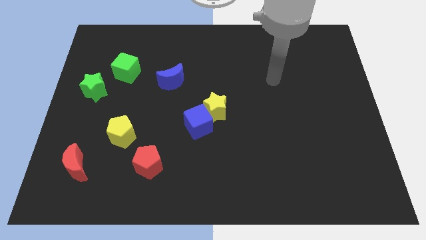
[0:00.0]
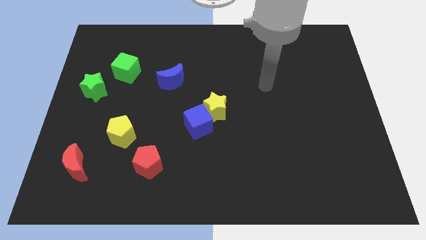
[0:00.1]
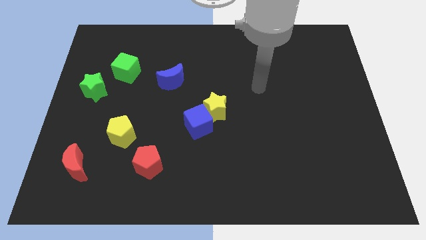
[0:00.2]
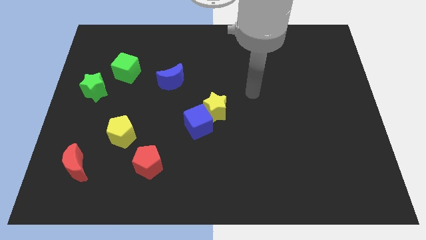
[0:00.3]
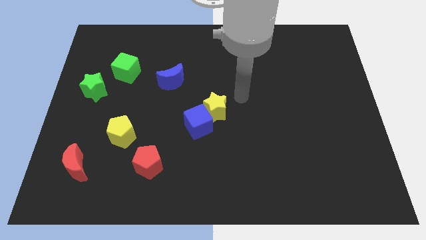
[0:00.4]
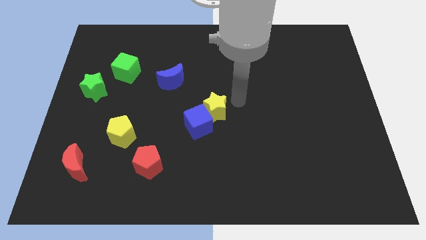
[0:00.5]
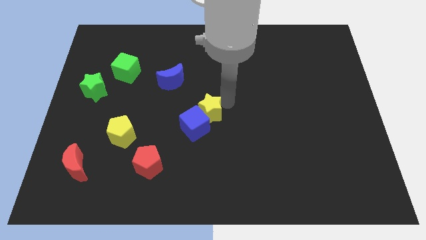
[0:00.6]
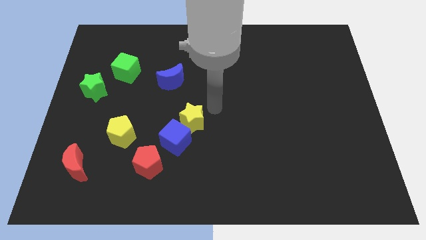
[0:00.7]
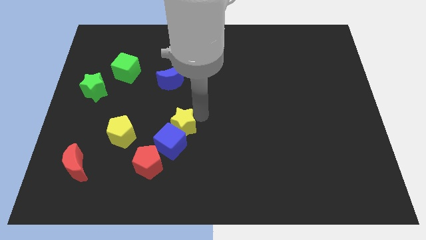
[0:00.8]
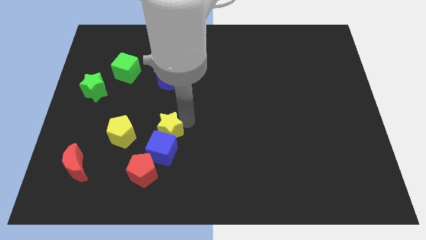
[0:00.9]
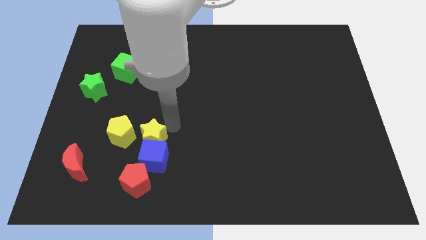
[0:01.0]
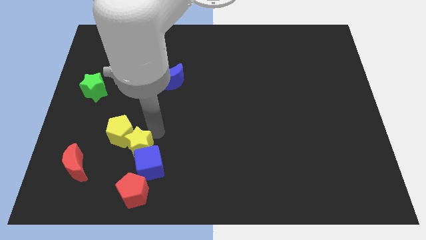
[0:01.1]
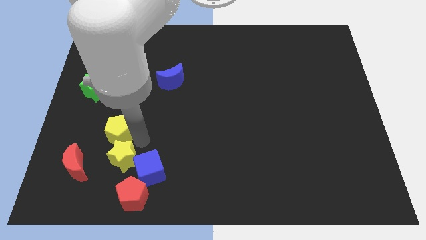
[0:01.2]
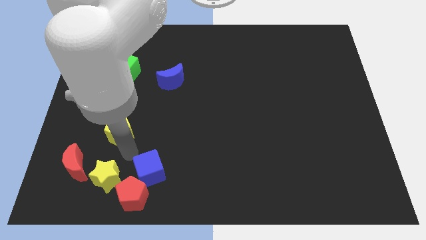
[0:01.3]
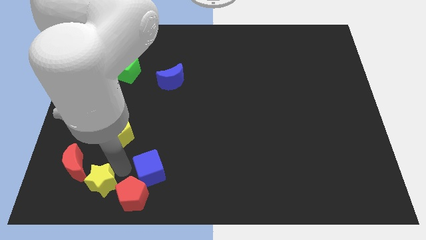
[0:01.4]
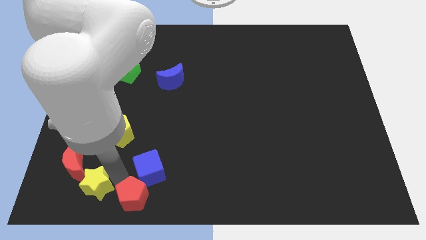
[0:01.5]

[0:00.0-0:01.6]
move the blue cube away from the yellow star

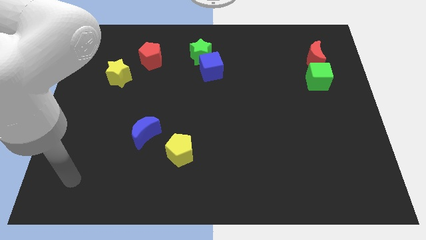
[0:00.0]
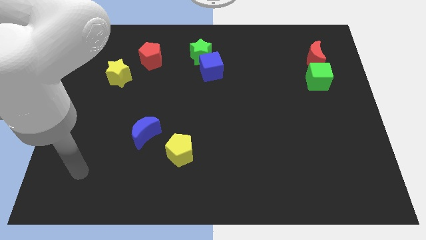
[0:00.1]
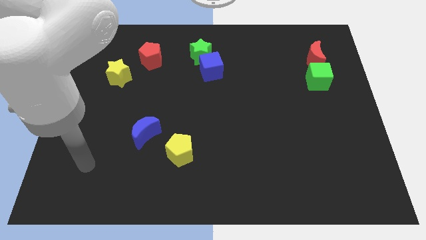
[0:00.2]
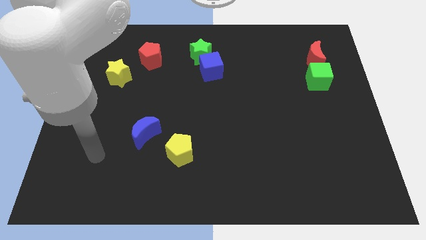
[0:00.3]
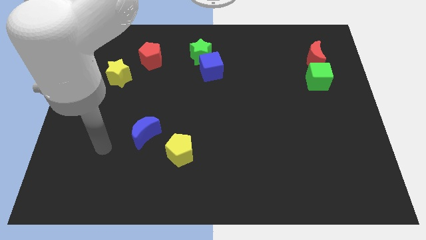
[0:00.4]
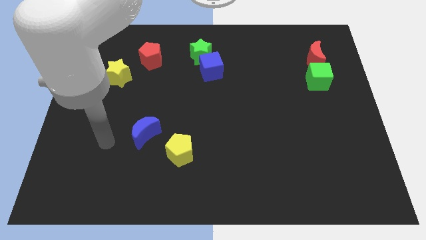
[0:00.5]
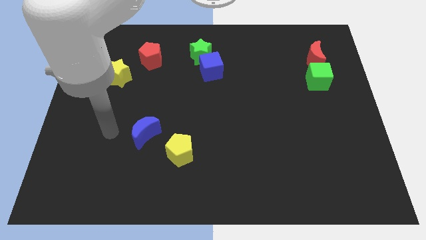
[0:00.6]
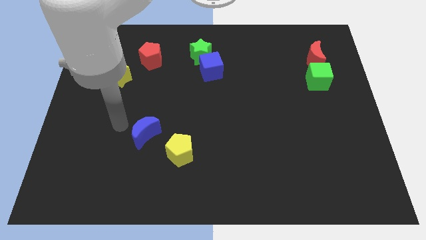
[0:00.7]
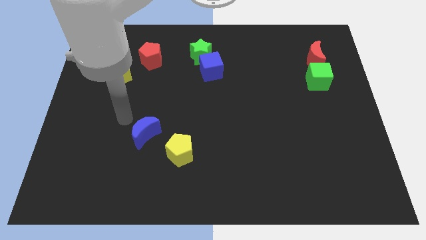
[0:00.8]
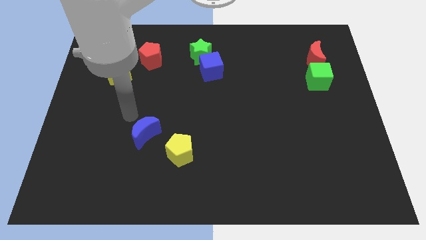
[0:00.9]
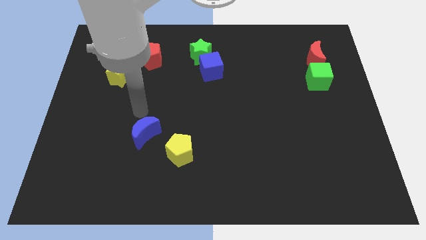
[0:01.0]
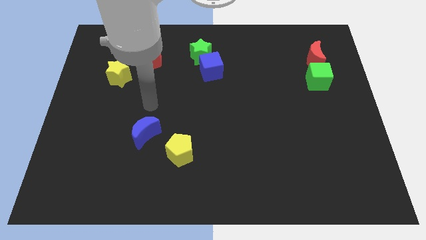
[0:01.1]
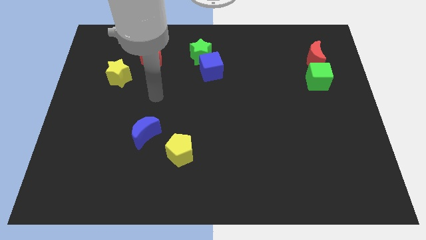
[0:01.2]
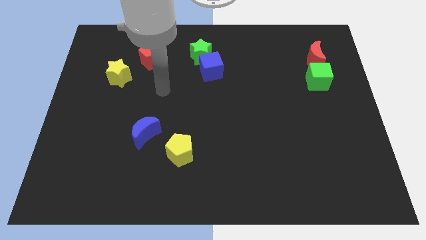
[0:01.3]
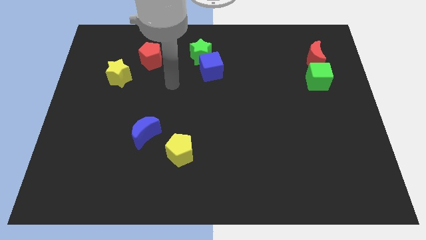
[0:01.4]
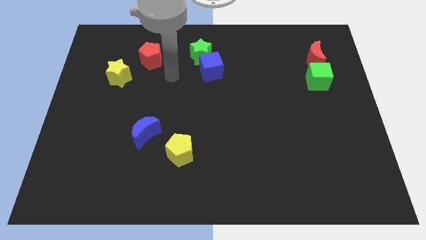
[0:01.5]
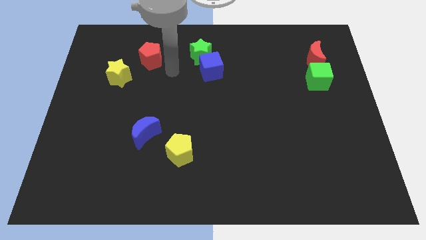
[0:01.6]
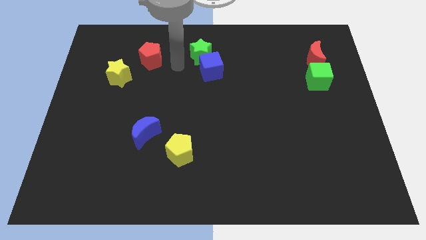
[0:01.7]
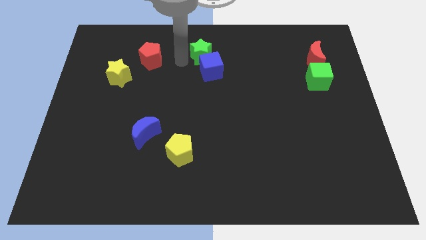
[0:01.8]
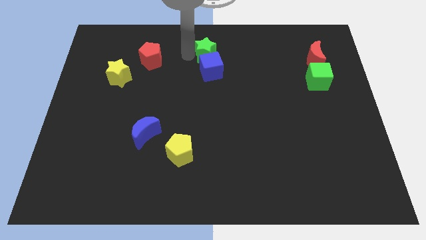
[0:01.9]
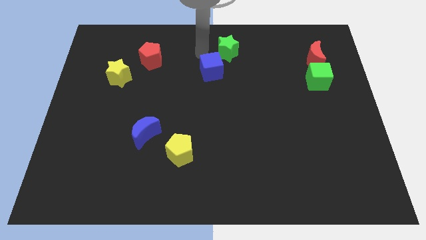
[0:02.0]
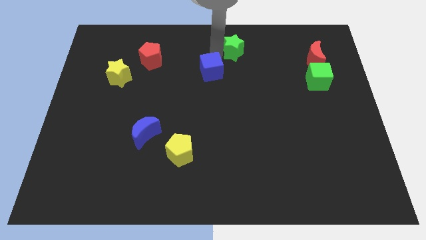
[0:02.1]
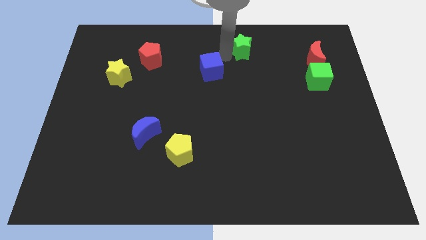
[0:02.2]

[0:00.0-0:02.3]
pull the blue cube apart from the green star

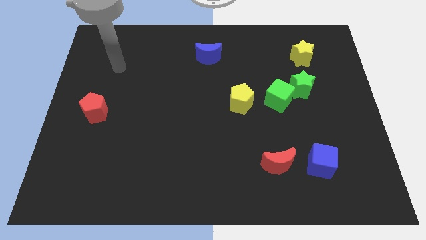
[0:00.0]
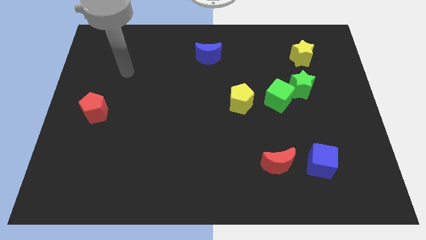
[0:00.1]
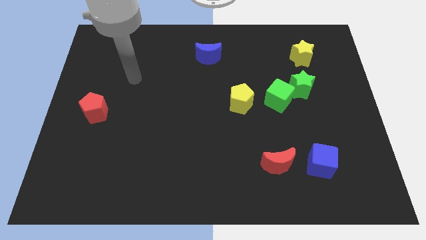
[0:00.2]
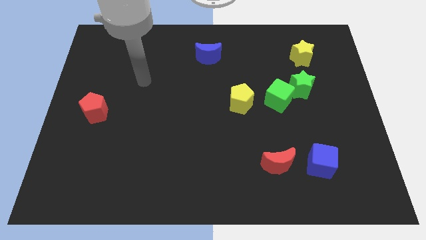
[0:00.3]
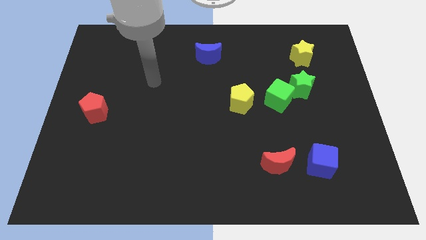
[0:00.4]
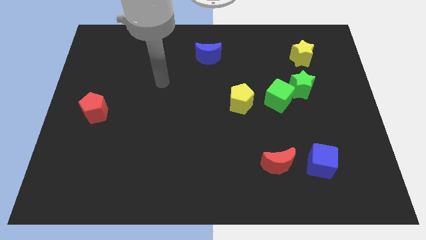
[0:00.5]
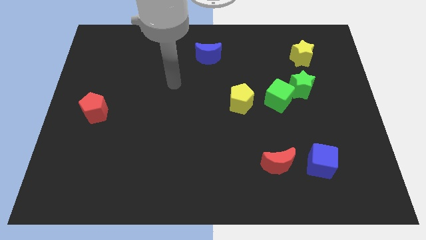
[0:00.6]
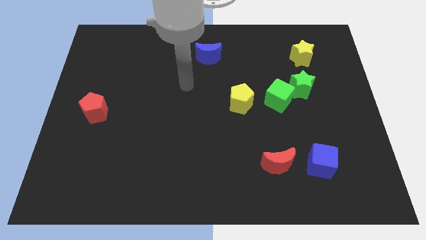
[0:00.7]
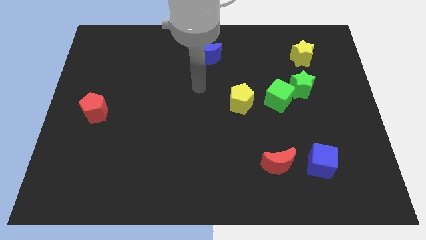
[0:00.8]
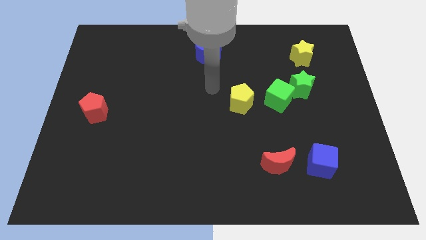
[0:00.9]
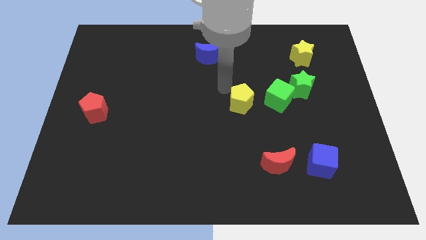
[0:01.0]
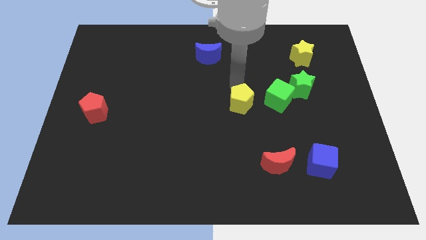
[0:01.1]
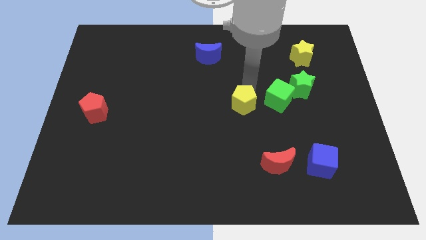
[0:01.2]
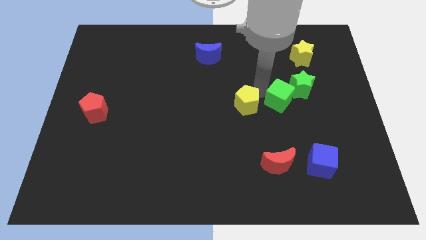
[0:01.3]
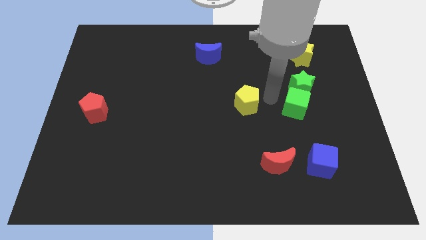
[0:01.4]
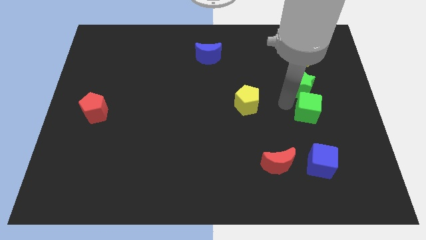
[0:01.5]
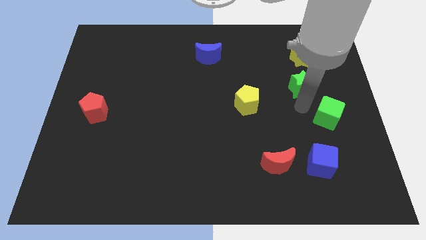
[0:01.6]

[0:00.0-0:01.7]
move the green star away from the green cube

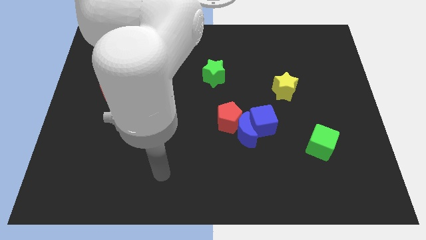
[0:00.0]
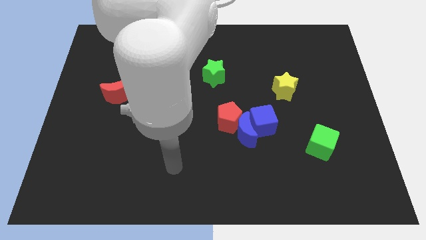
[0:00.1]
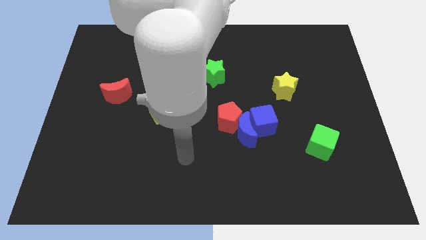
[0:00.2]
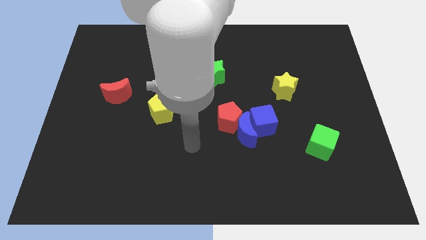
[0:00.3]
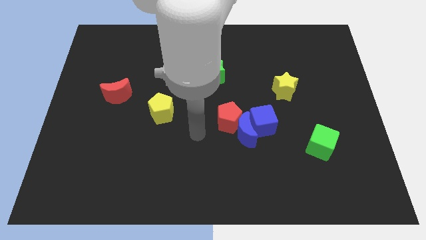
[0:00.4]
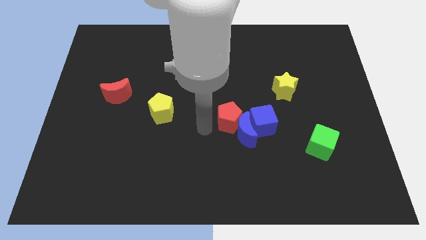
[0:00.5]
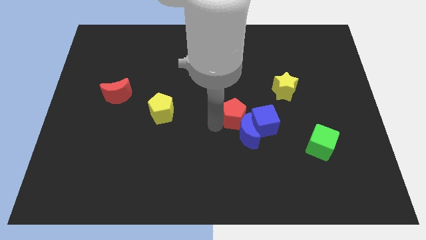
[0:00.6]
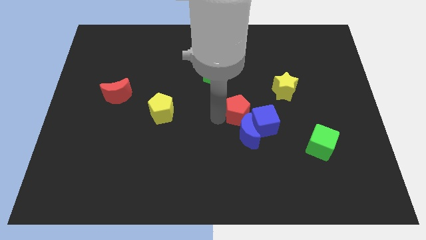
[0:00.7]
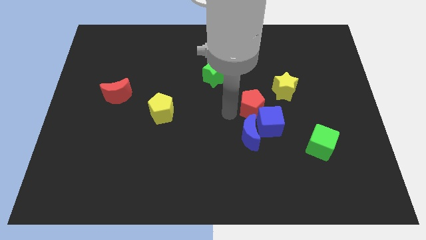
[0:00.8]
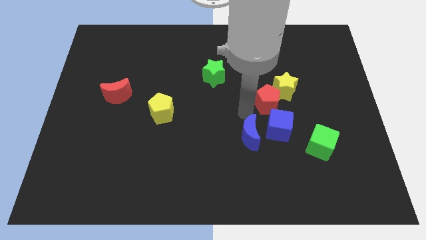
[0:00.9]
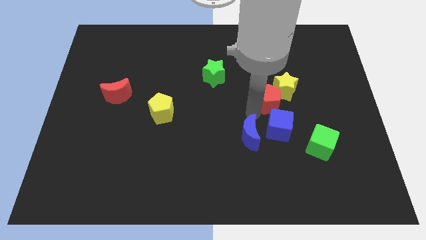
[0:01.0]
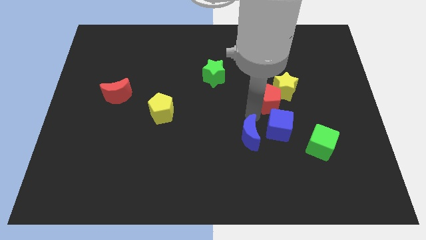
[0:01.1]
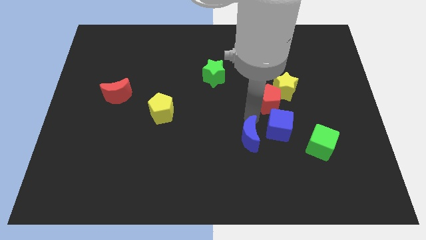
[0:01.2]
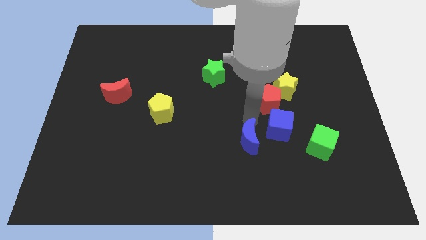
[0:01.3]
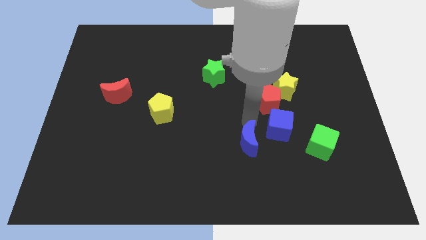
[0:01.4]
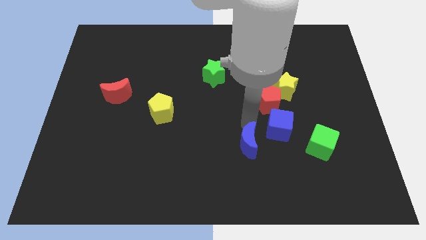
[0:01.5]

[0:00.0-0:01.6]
move the blue moon away from the blue cube and red pentagon

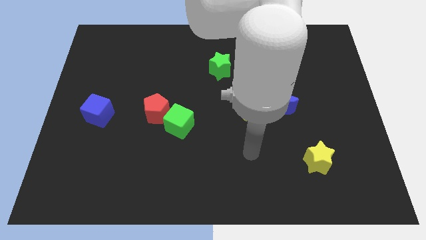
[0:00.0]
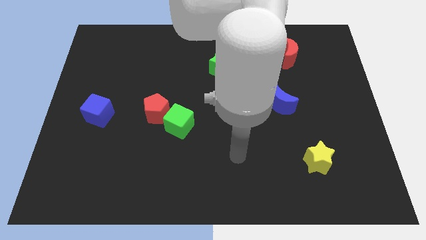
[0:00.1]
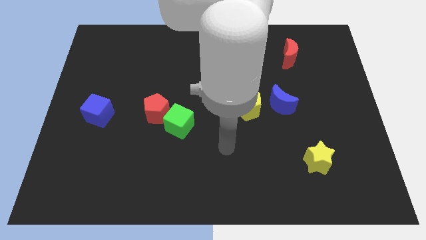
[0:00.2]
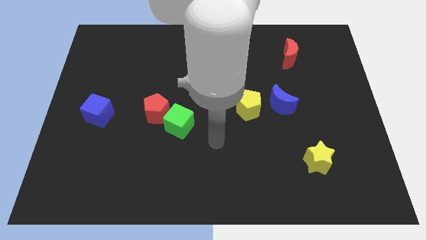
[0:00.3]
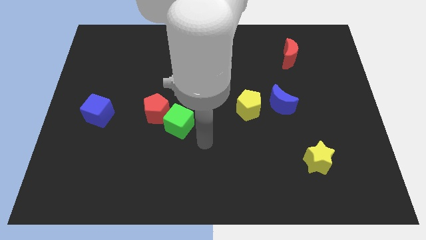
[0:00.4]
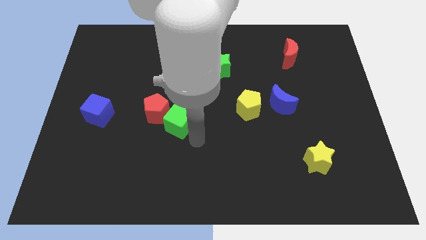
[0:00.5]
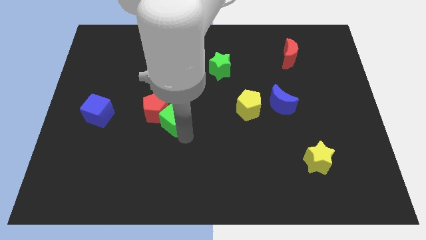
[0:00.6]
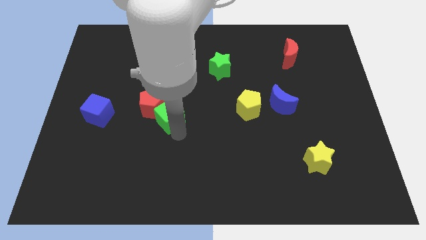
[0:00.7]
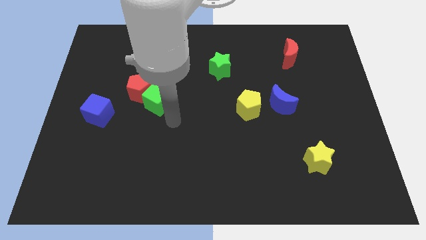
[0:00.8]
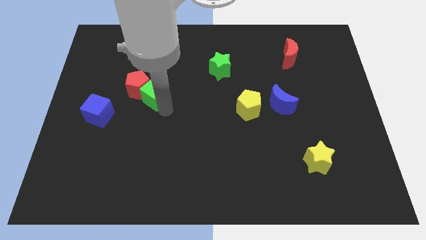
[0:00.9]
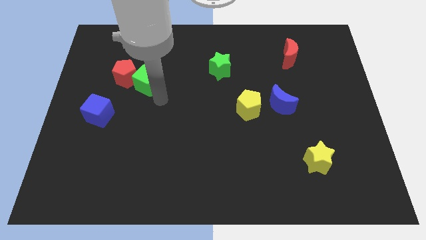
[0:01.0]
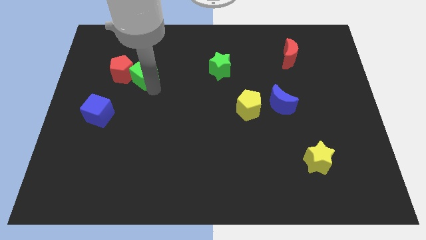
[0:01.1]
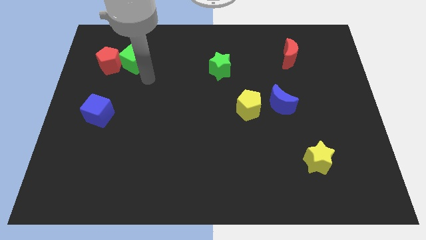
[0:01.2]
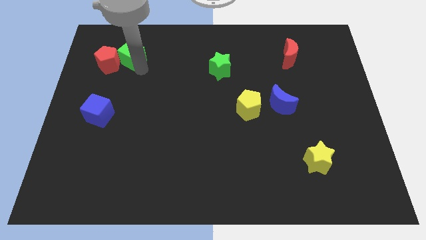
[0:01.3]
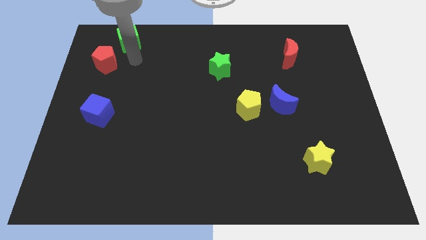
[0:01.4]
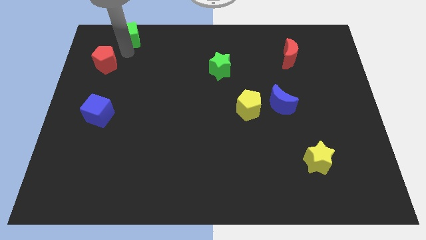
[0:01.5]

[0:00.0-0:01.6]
move the red pentagon away from the green cube

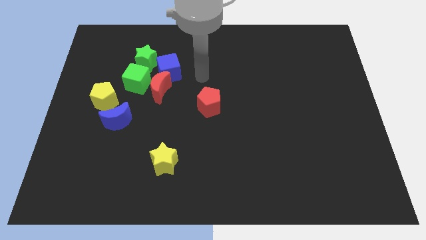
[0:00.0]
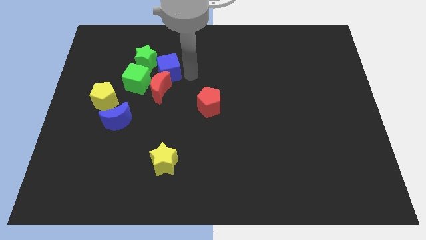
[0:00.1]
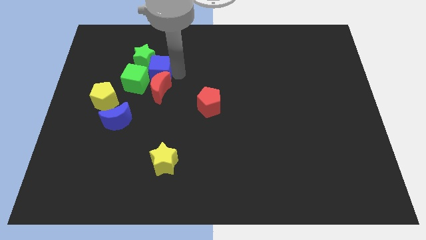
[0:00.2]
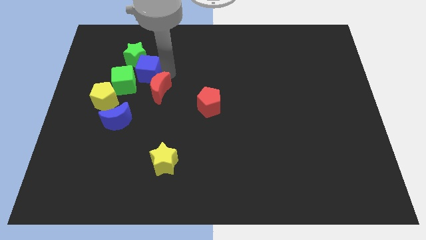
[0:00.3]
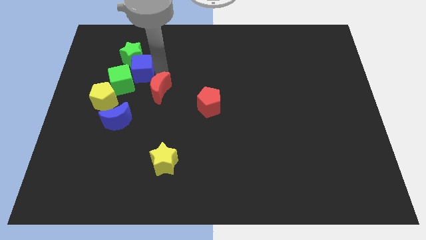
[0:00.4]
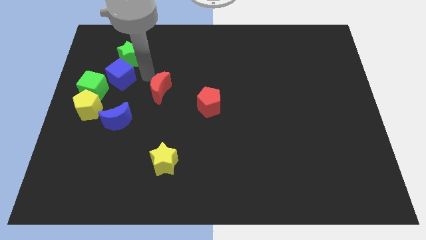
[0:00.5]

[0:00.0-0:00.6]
separate the red moon from the green cube and blue cube
